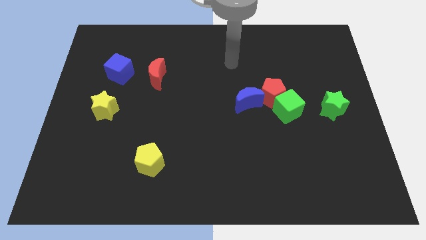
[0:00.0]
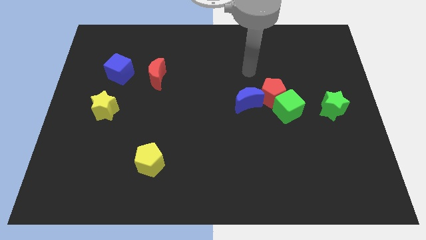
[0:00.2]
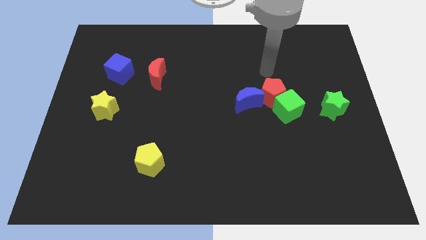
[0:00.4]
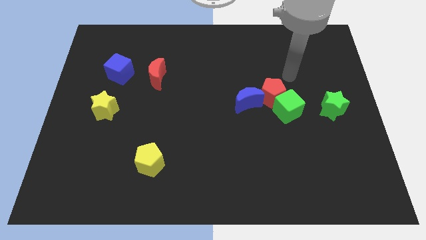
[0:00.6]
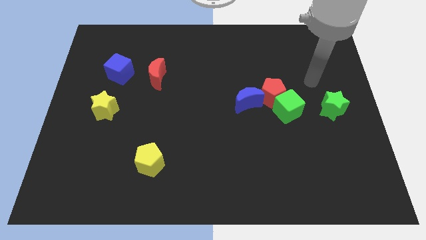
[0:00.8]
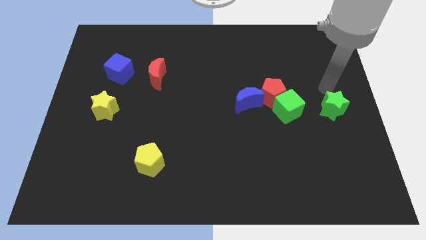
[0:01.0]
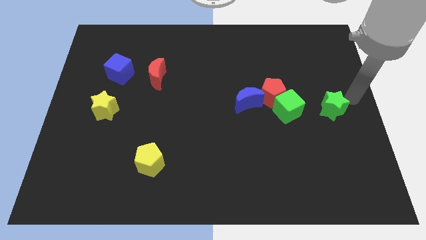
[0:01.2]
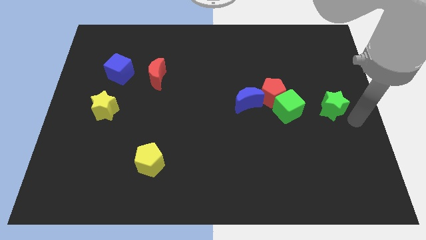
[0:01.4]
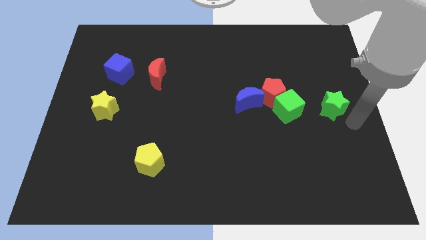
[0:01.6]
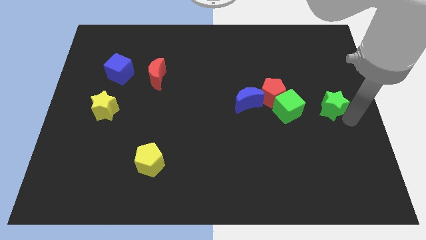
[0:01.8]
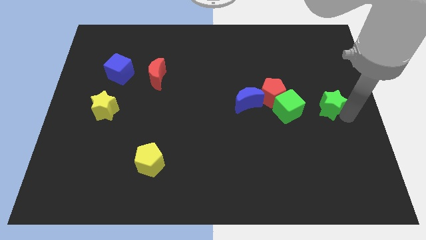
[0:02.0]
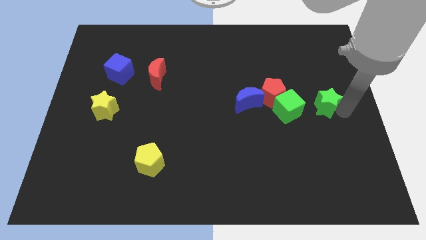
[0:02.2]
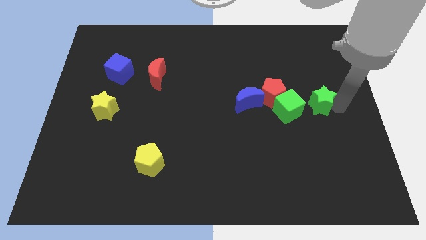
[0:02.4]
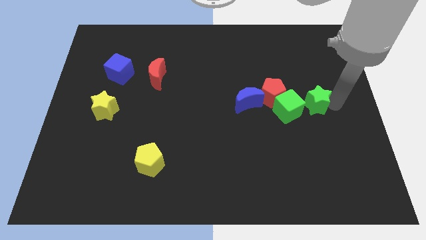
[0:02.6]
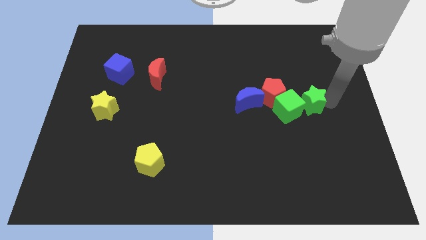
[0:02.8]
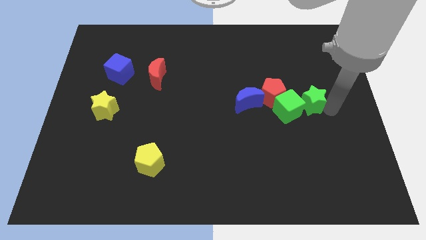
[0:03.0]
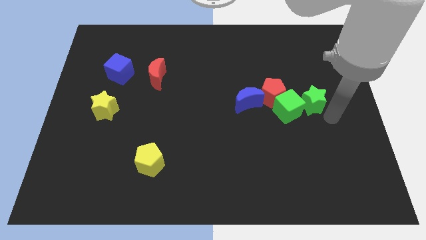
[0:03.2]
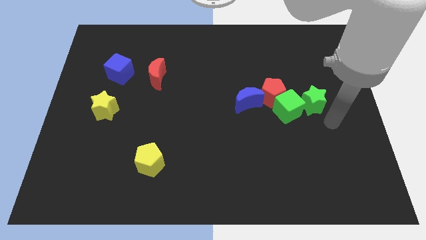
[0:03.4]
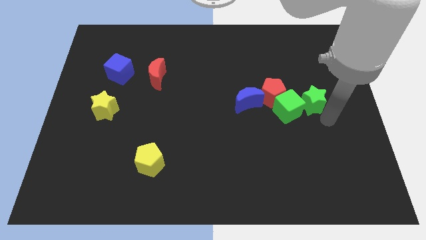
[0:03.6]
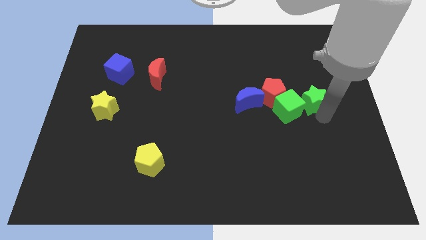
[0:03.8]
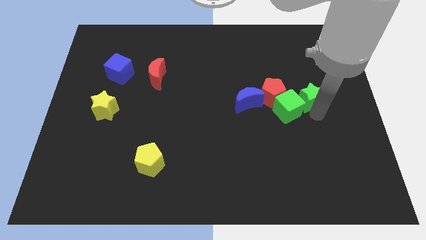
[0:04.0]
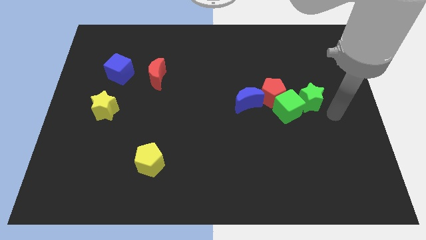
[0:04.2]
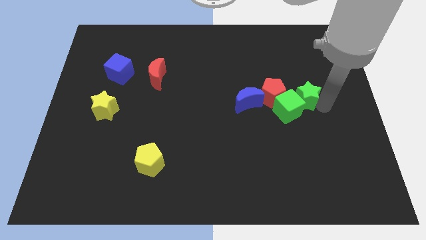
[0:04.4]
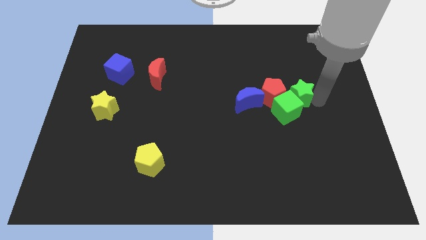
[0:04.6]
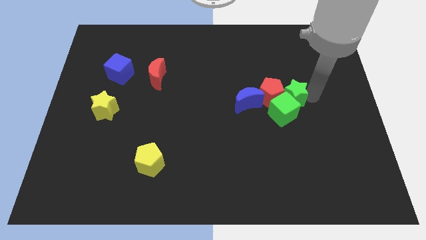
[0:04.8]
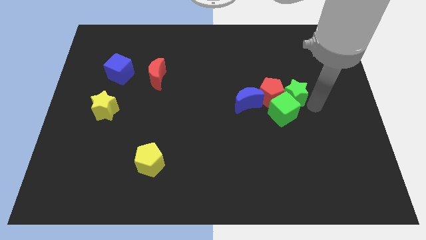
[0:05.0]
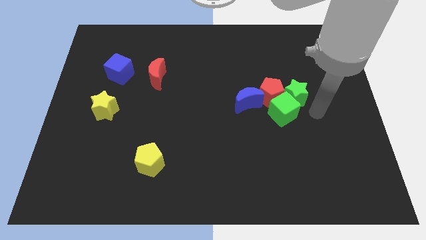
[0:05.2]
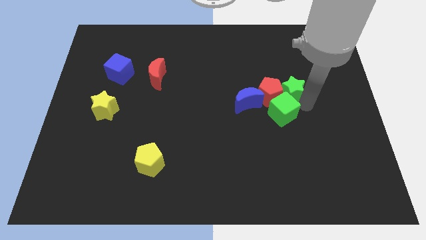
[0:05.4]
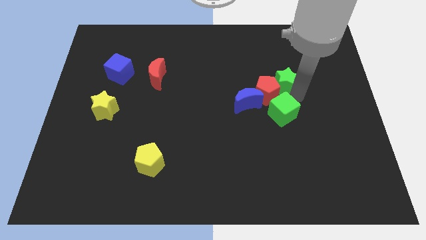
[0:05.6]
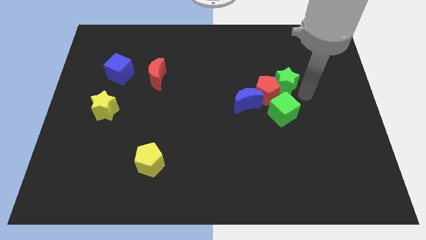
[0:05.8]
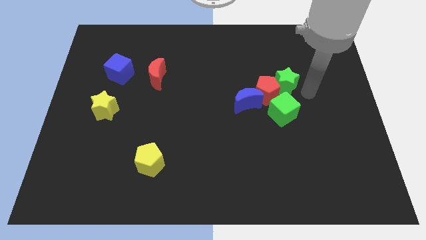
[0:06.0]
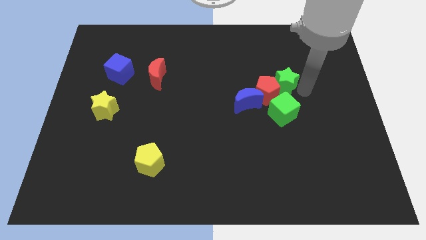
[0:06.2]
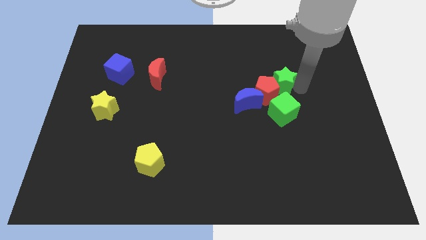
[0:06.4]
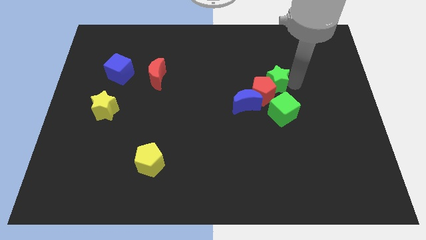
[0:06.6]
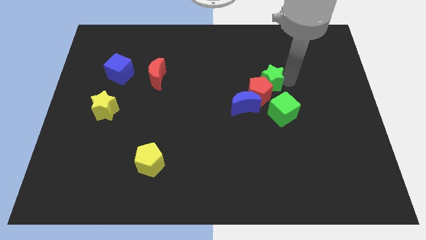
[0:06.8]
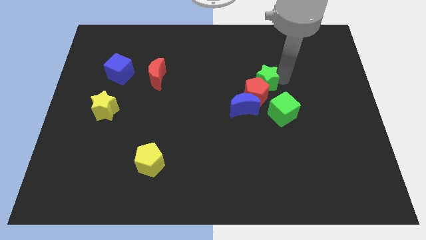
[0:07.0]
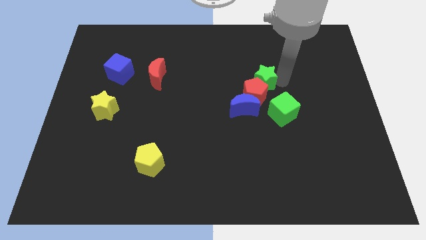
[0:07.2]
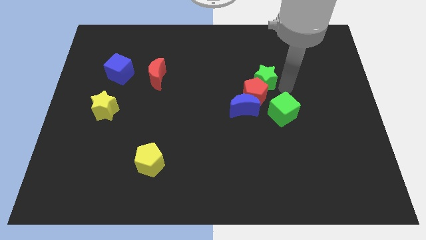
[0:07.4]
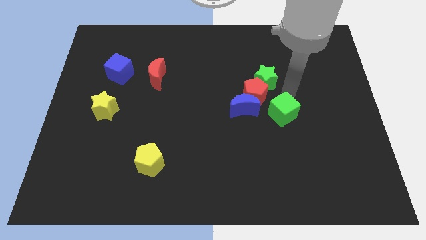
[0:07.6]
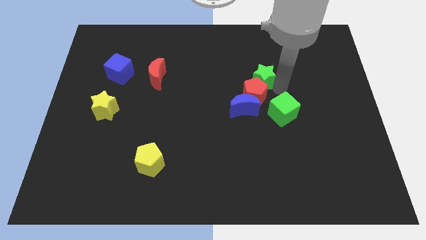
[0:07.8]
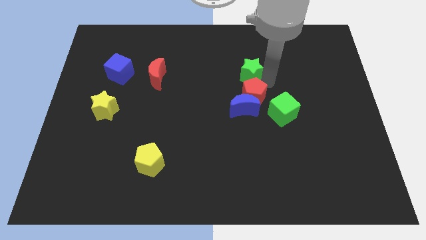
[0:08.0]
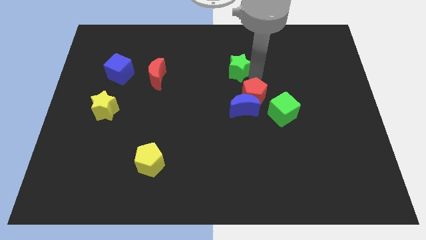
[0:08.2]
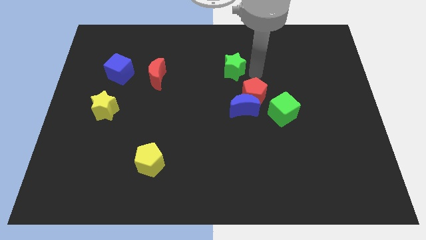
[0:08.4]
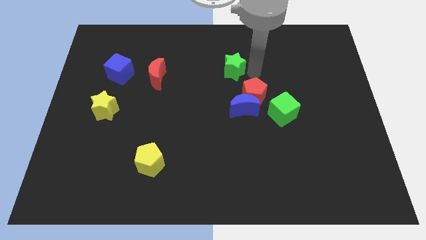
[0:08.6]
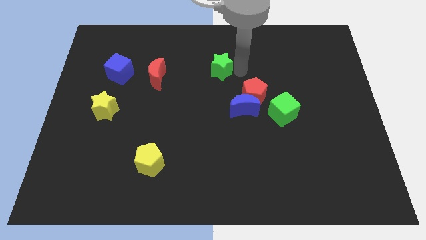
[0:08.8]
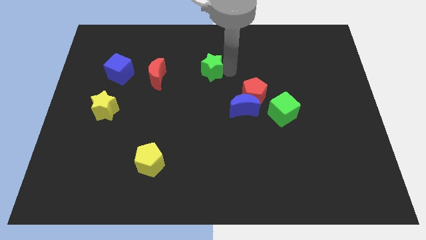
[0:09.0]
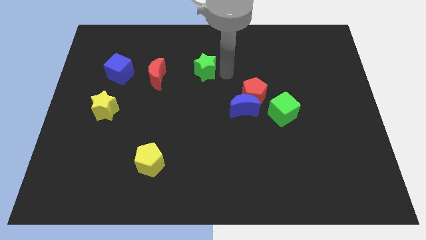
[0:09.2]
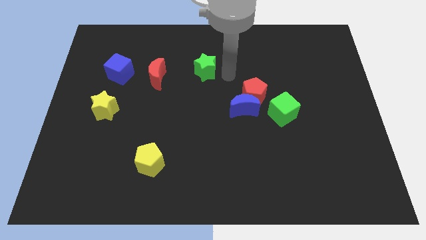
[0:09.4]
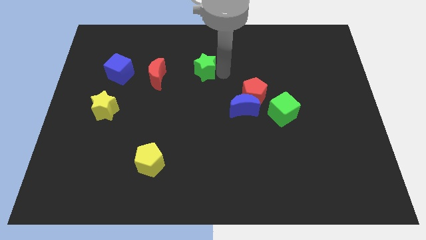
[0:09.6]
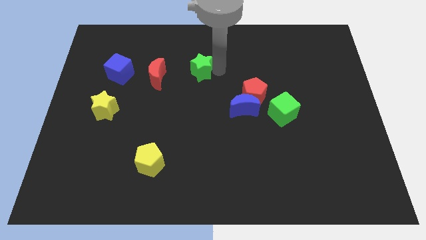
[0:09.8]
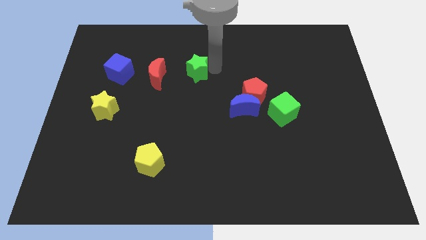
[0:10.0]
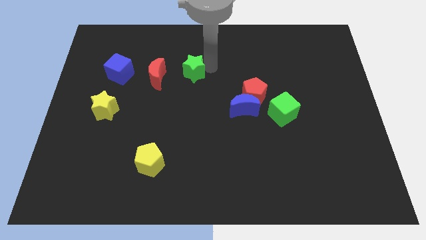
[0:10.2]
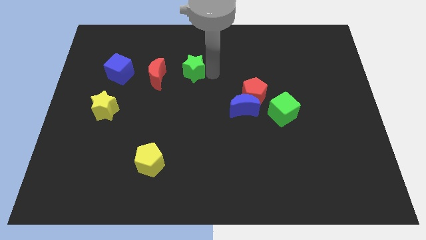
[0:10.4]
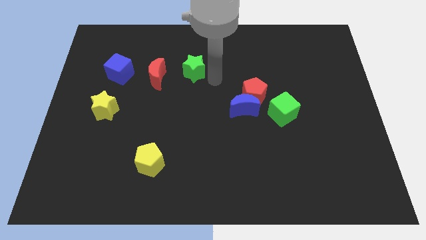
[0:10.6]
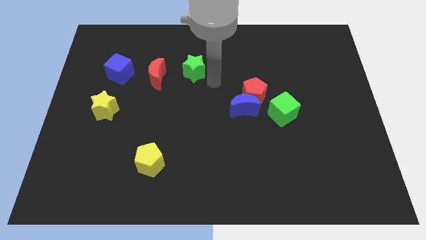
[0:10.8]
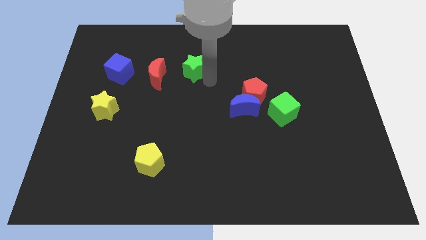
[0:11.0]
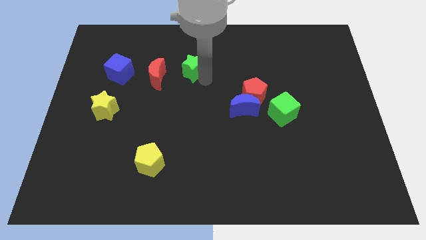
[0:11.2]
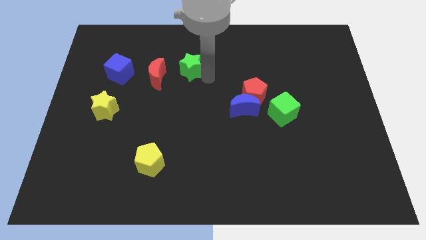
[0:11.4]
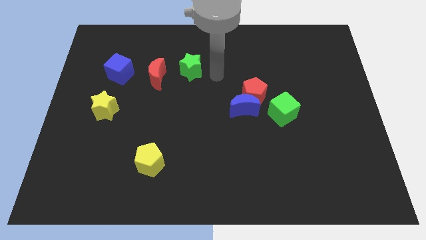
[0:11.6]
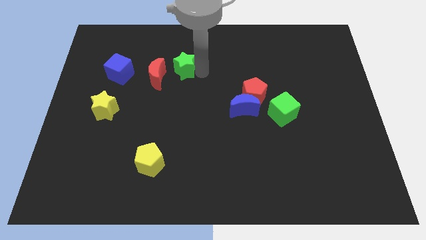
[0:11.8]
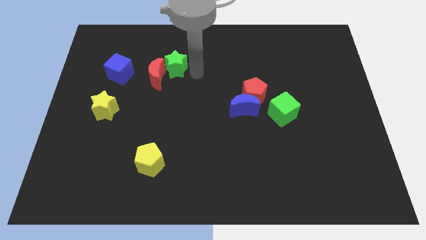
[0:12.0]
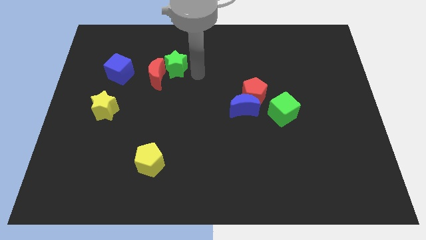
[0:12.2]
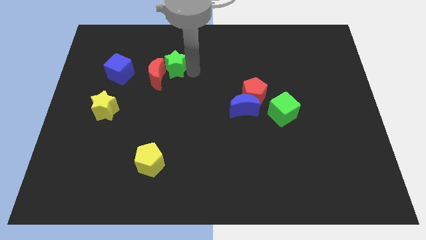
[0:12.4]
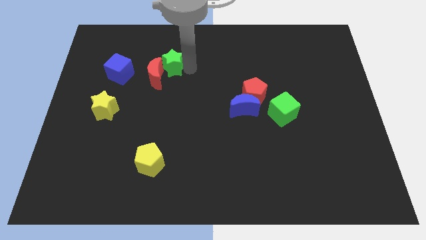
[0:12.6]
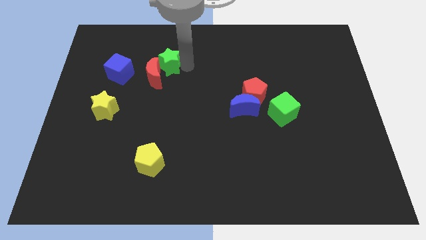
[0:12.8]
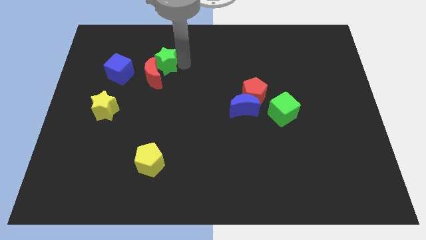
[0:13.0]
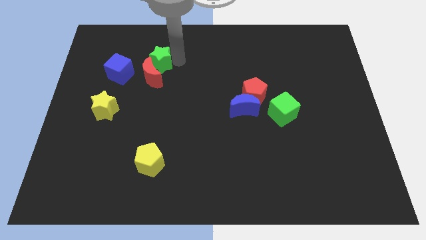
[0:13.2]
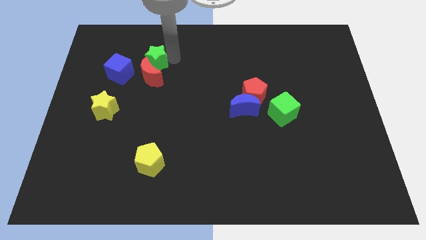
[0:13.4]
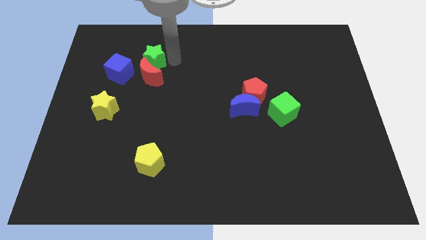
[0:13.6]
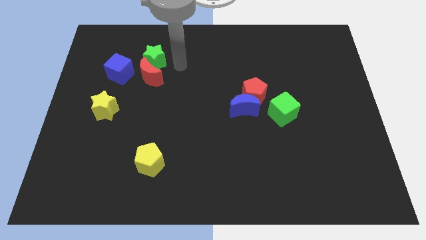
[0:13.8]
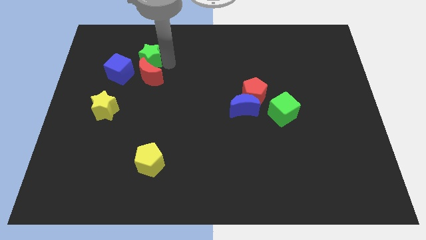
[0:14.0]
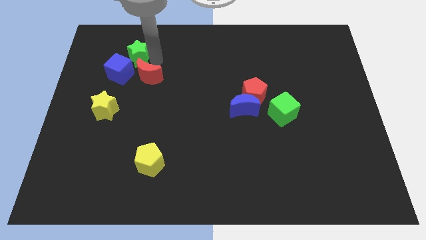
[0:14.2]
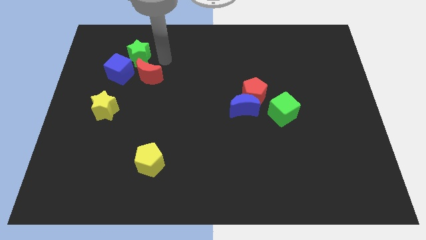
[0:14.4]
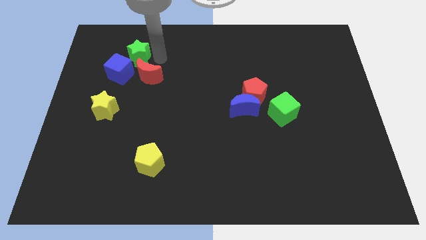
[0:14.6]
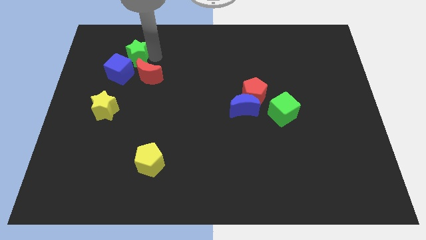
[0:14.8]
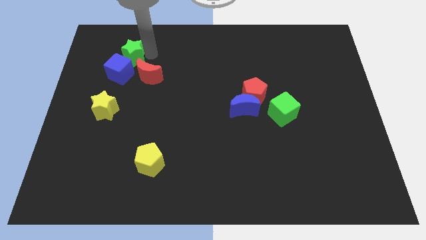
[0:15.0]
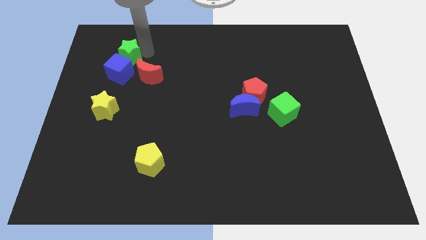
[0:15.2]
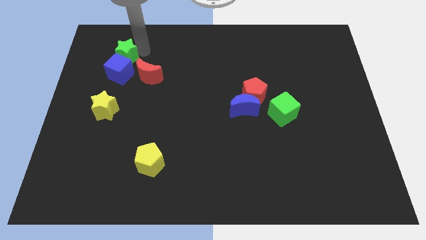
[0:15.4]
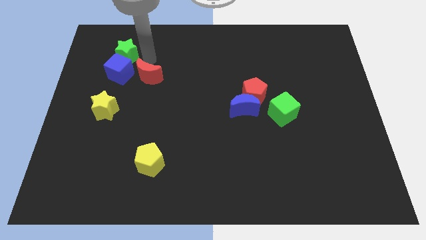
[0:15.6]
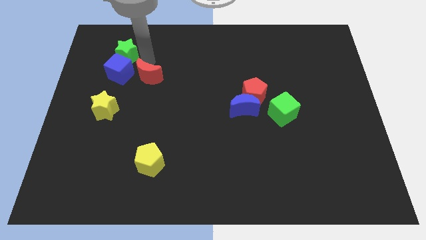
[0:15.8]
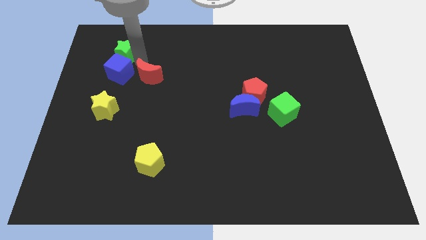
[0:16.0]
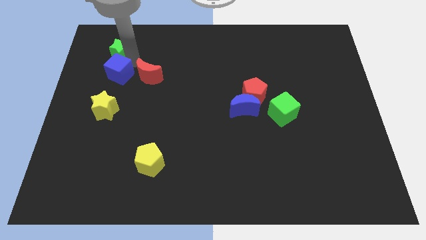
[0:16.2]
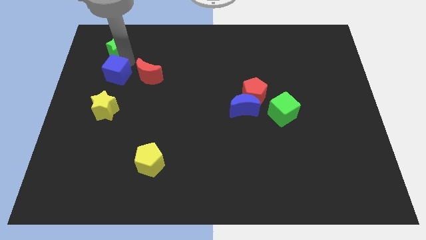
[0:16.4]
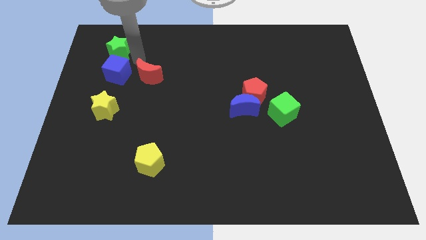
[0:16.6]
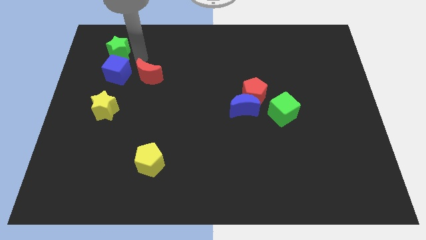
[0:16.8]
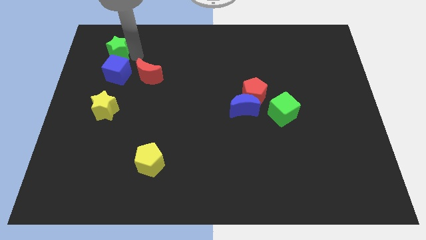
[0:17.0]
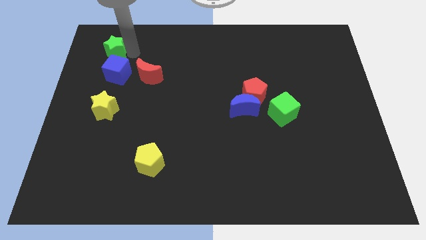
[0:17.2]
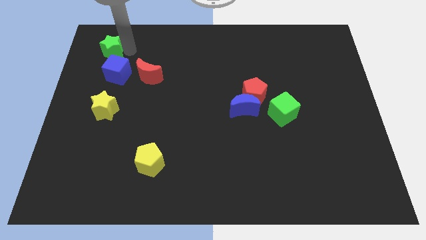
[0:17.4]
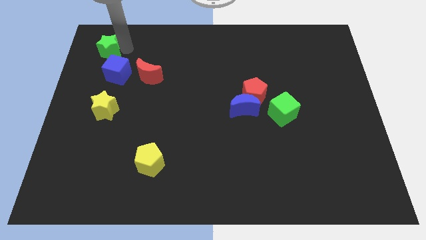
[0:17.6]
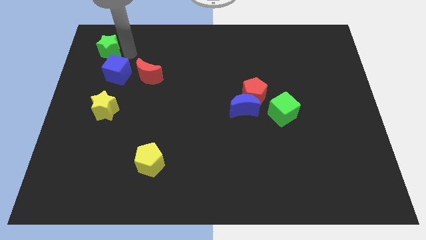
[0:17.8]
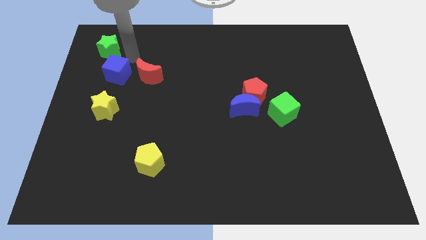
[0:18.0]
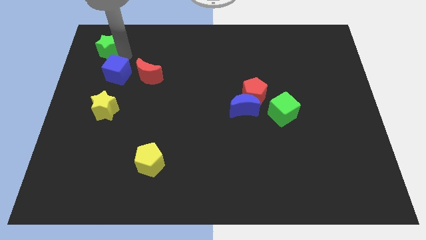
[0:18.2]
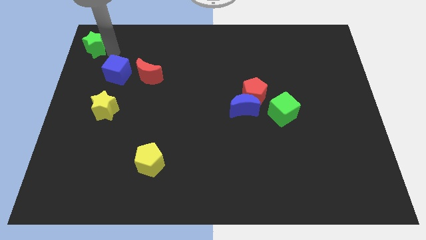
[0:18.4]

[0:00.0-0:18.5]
push the green star to the upper left corner
